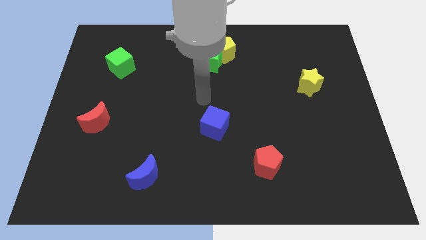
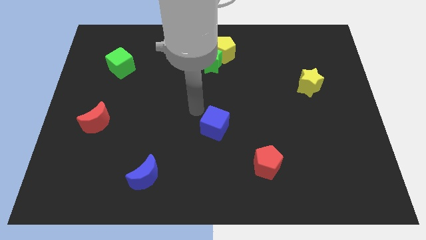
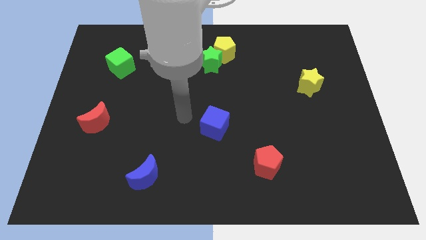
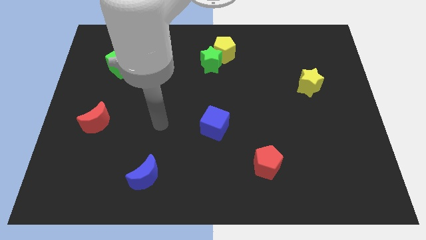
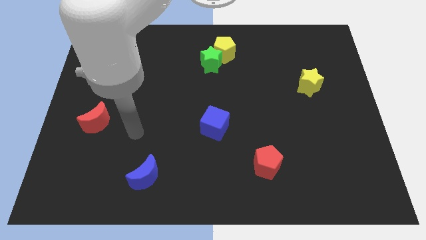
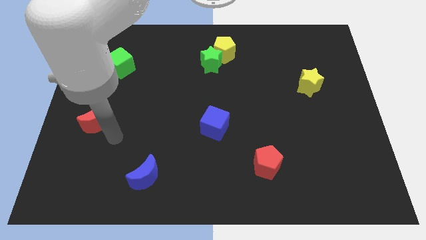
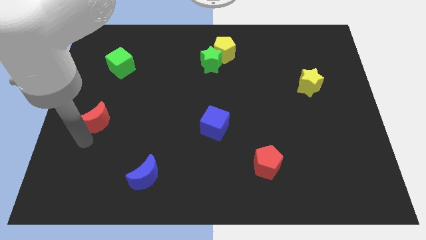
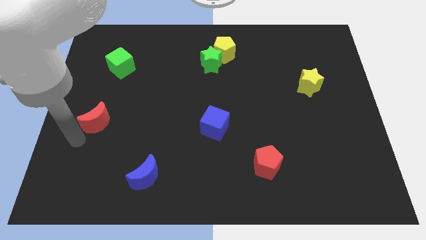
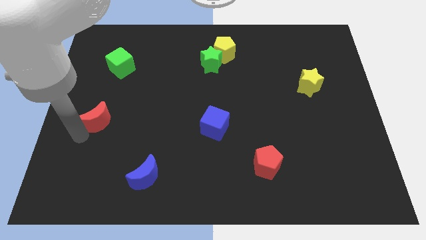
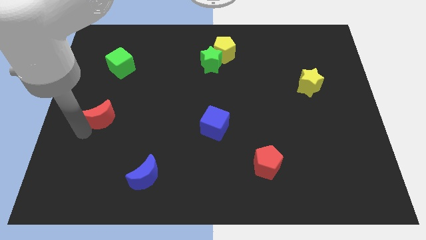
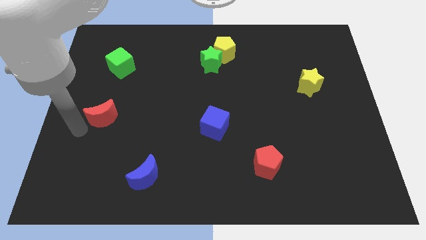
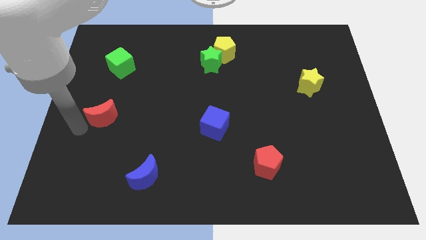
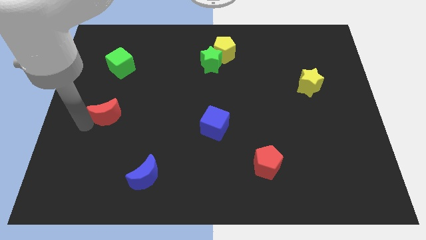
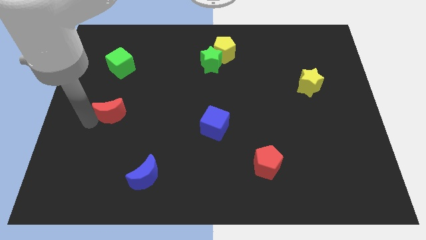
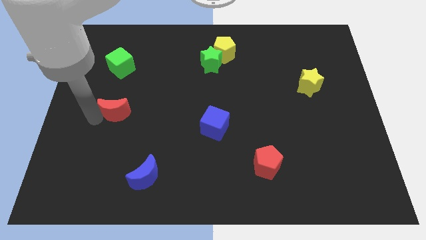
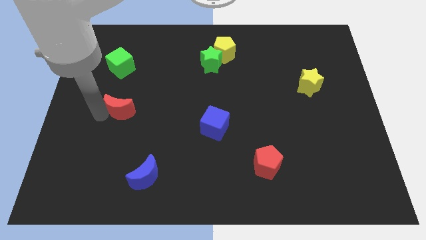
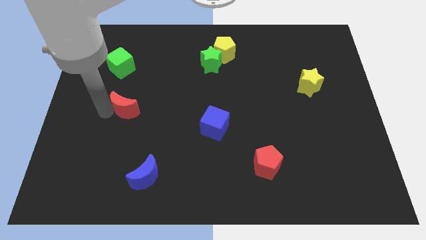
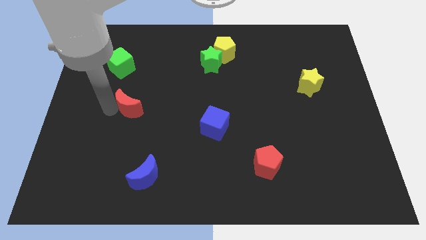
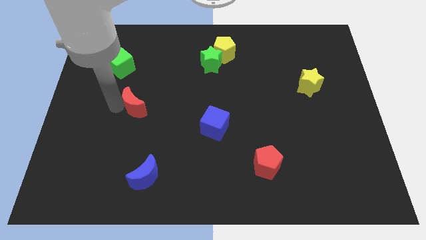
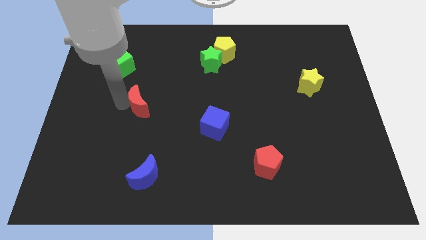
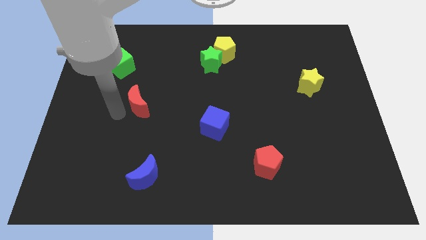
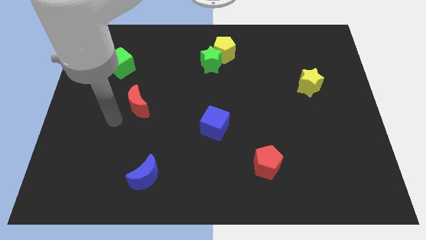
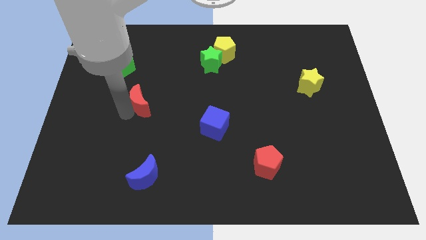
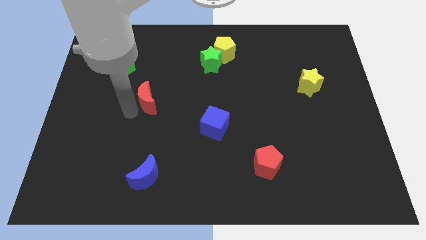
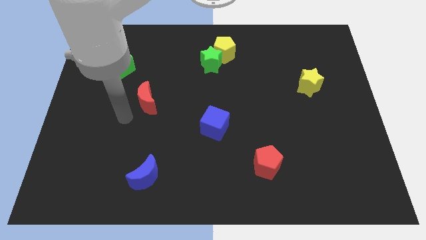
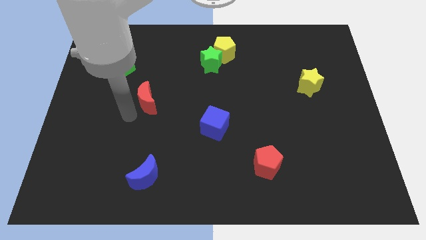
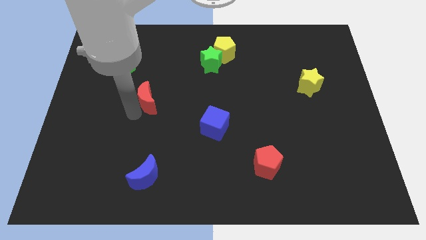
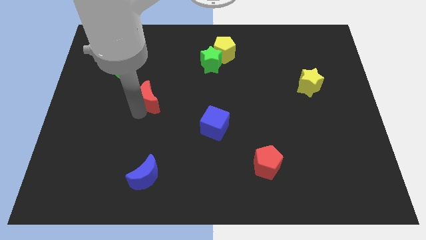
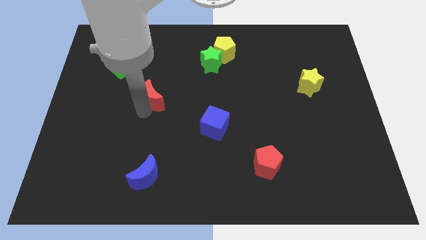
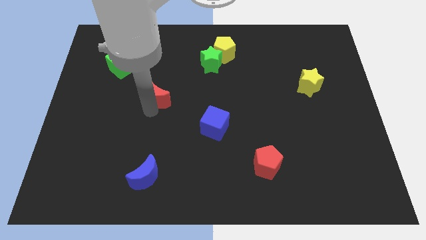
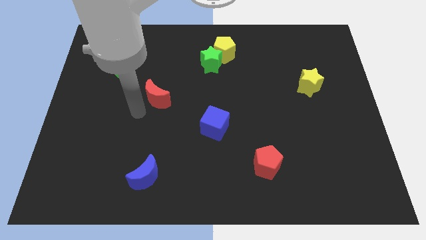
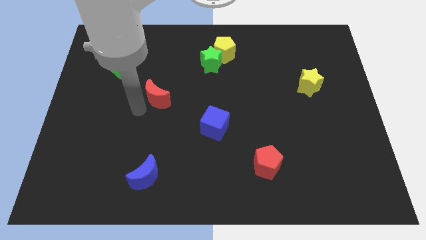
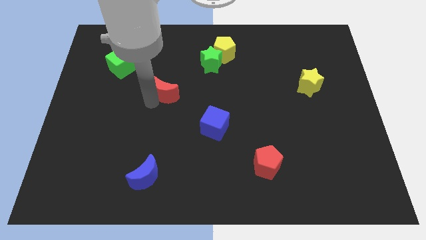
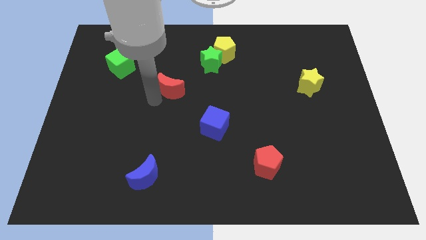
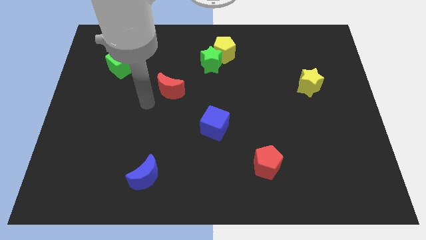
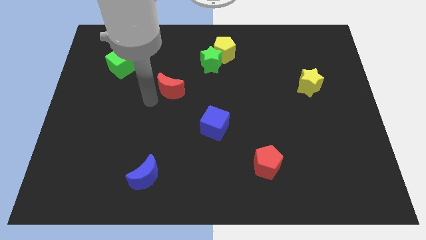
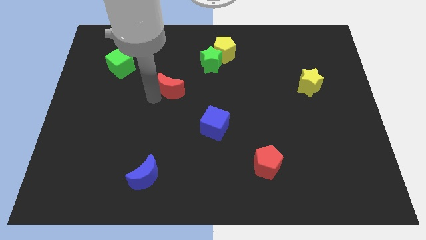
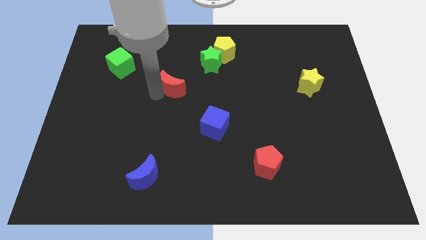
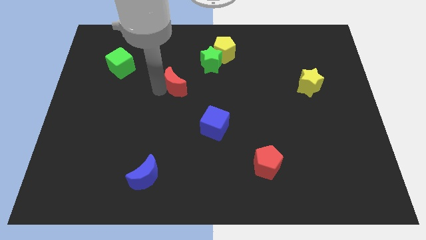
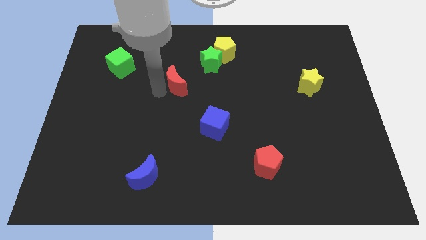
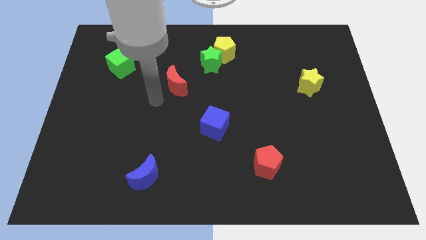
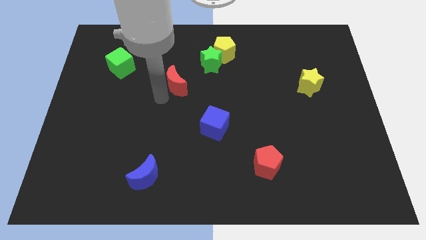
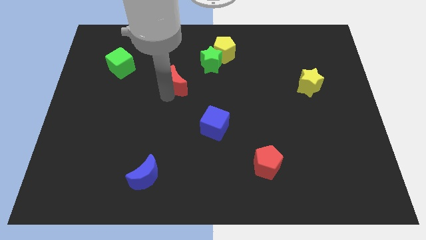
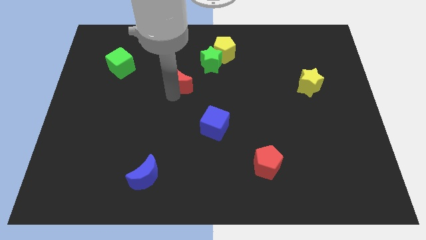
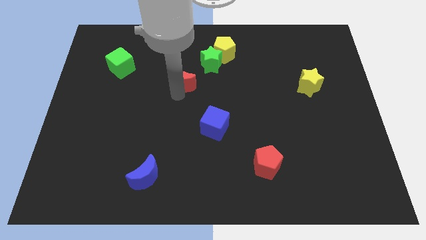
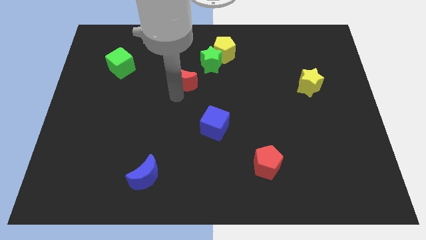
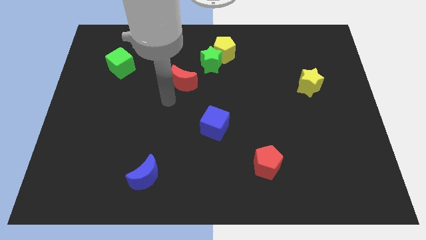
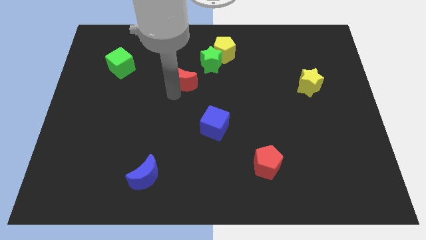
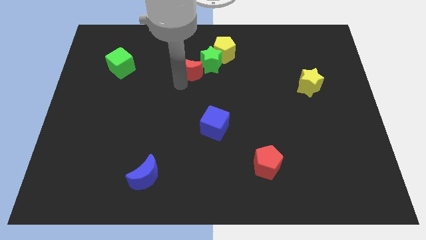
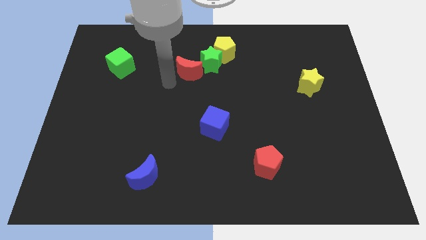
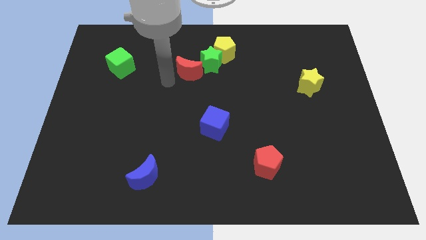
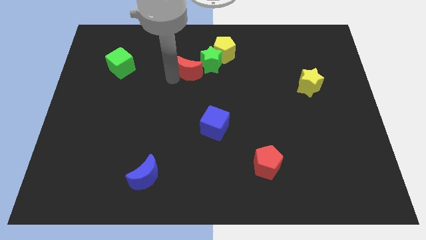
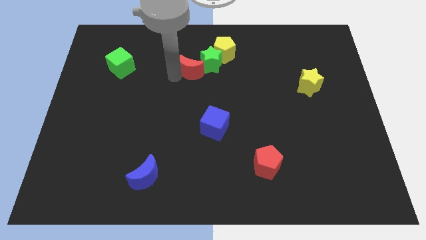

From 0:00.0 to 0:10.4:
move the red moon close to the green star

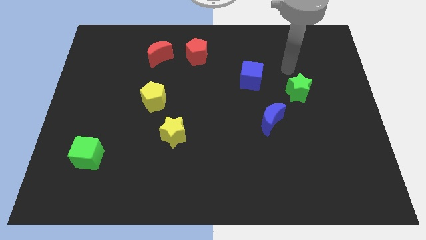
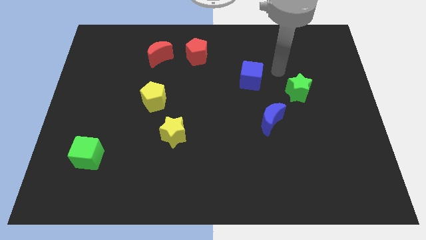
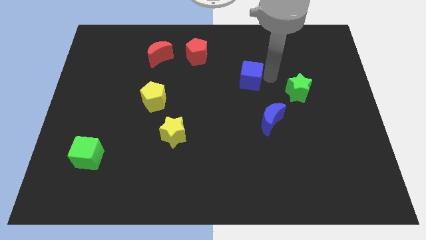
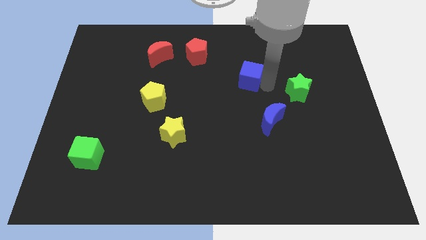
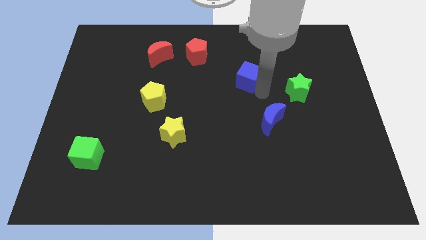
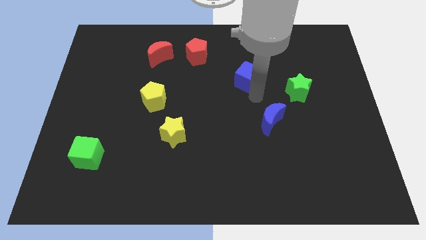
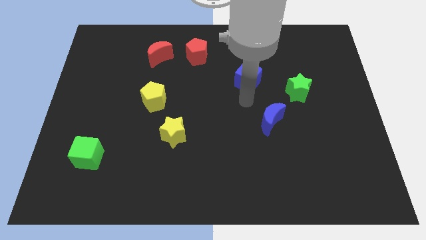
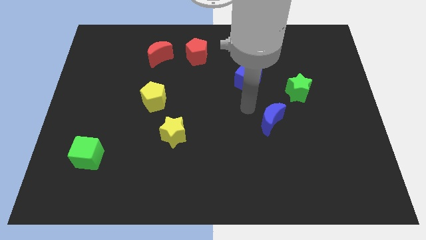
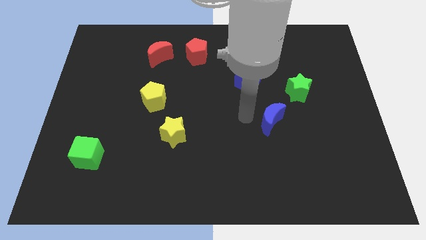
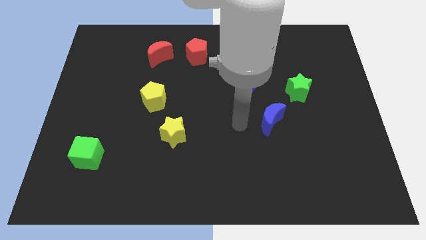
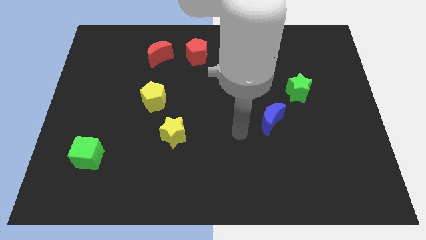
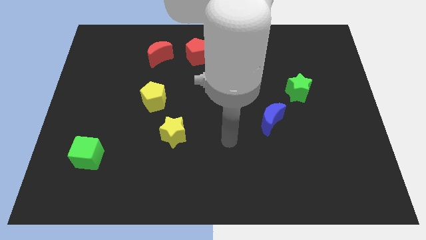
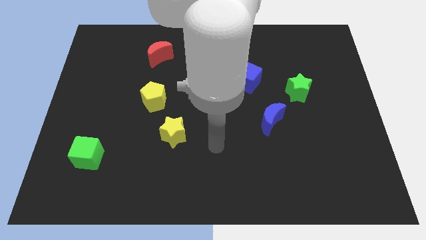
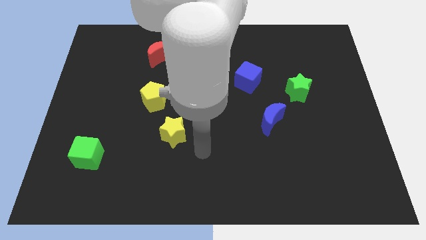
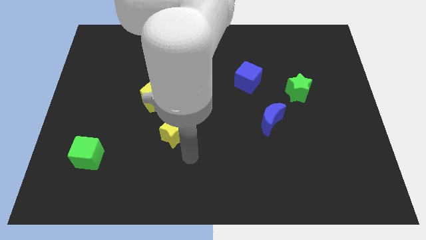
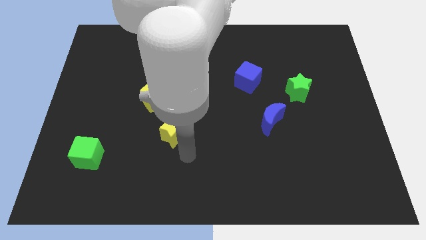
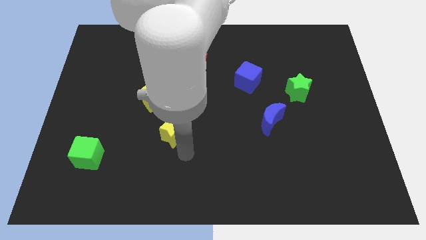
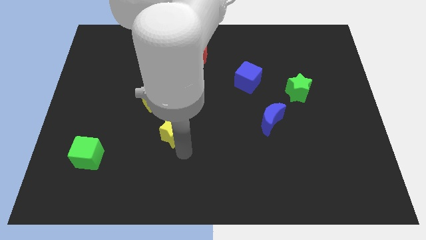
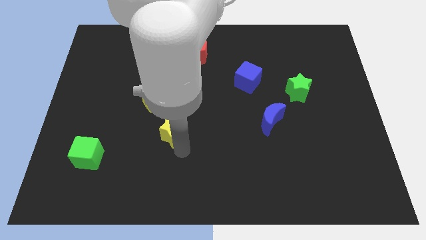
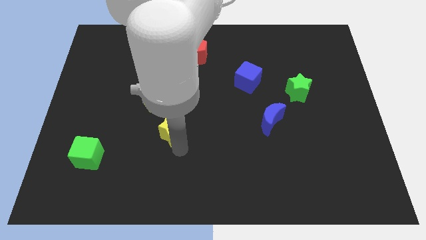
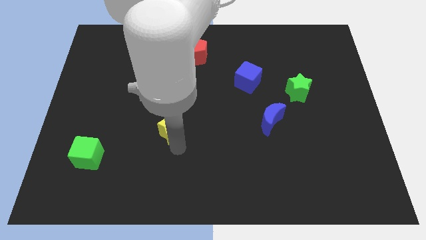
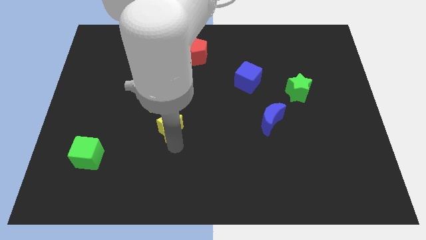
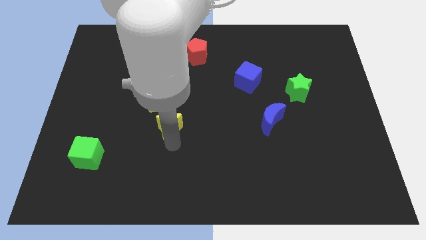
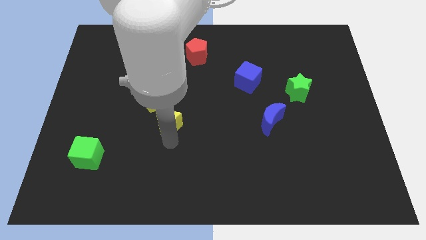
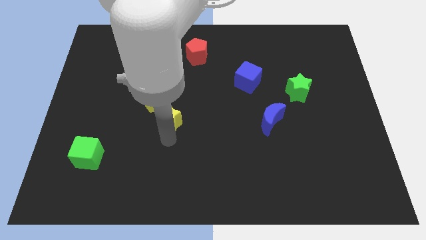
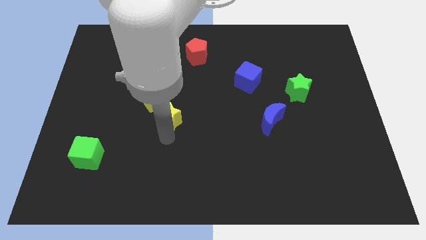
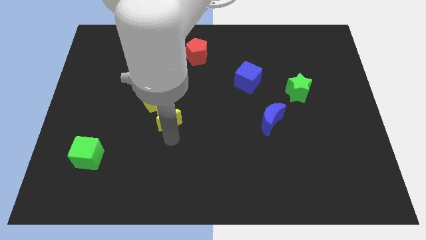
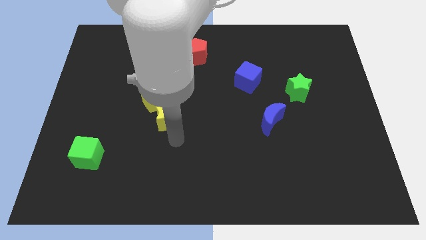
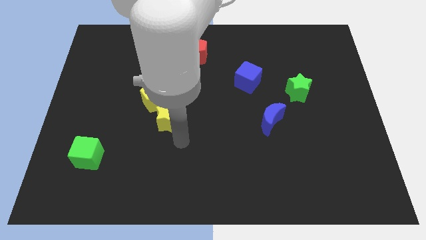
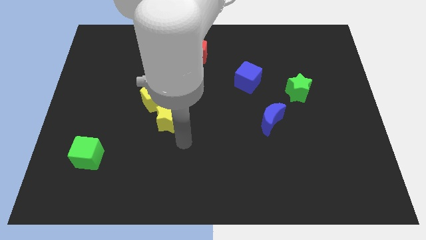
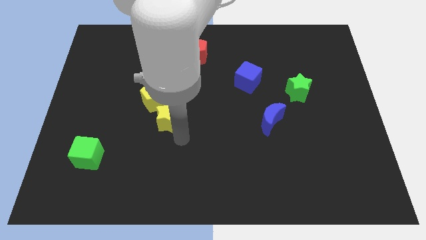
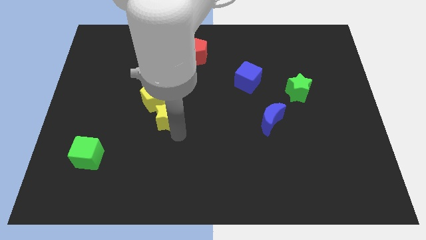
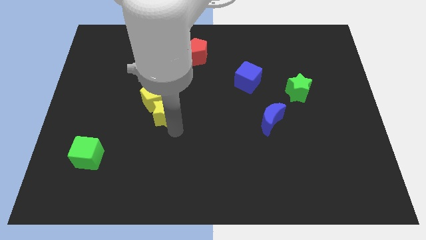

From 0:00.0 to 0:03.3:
put the yellow star towards the yellow pentagon
